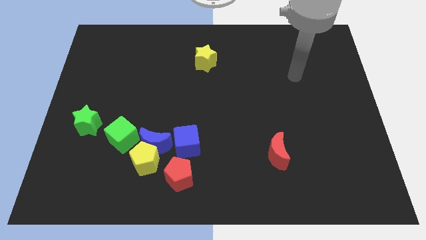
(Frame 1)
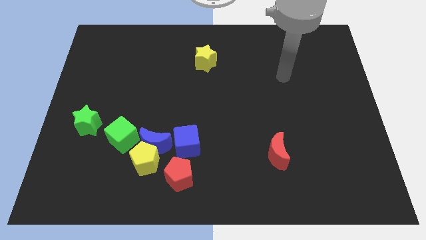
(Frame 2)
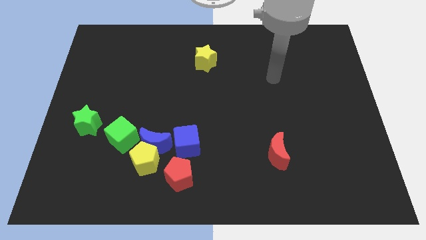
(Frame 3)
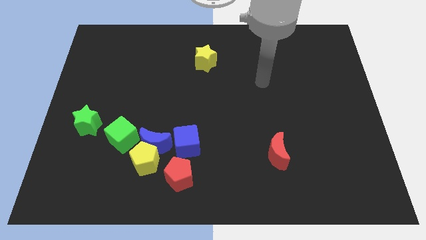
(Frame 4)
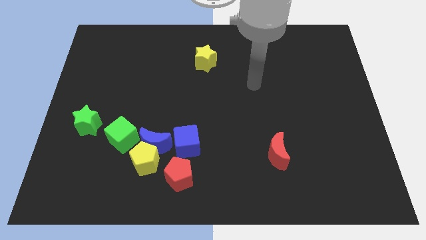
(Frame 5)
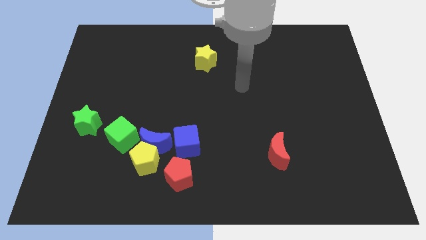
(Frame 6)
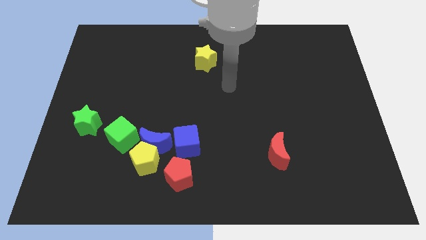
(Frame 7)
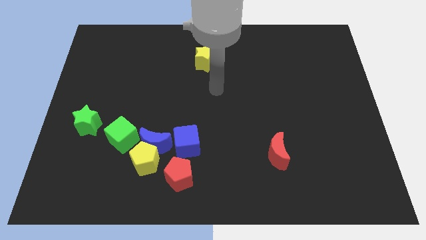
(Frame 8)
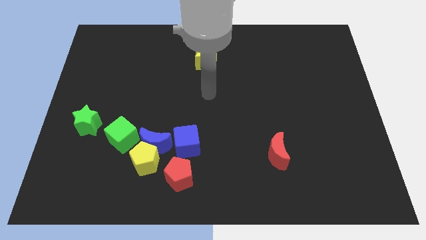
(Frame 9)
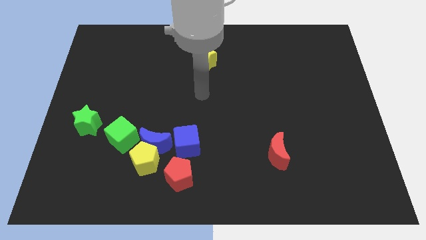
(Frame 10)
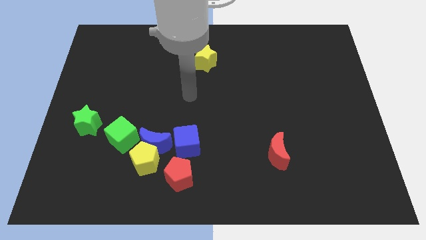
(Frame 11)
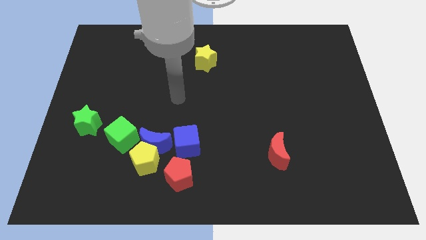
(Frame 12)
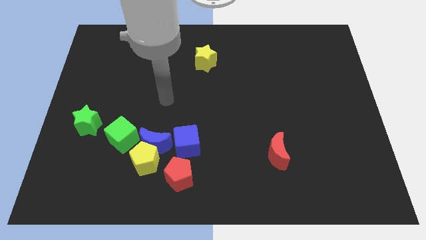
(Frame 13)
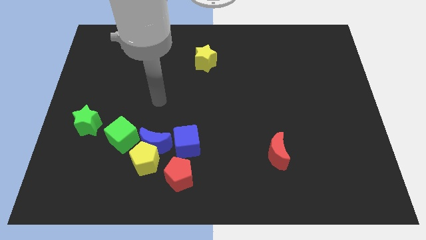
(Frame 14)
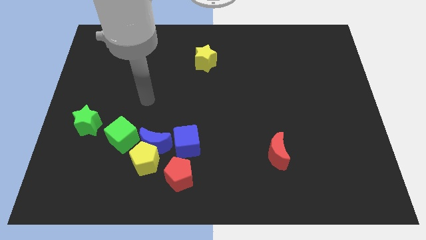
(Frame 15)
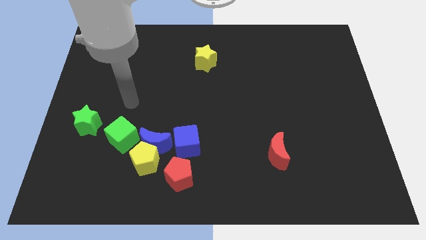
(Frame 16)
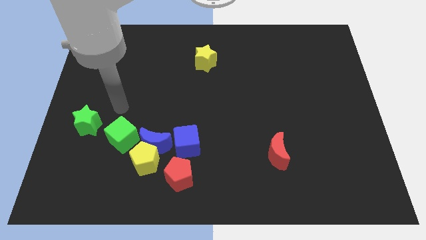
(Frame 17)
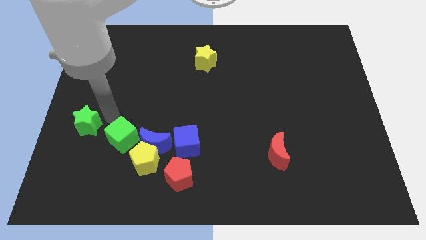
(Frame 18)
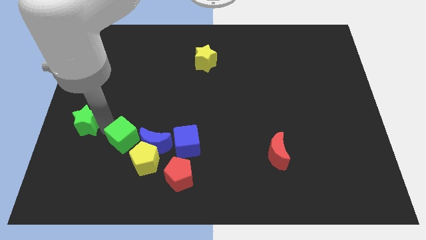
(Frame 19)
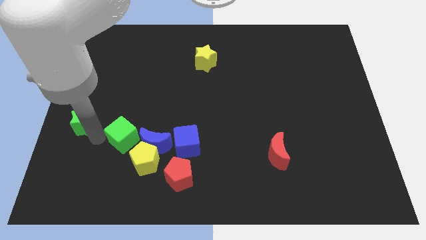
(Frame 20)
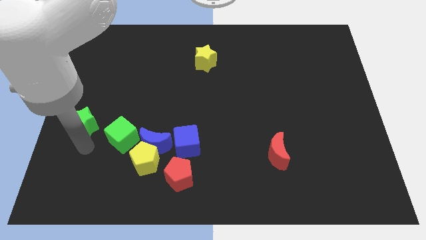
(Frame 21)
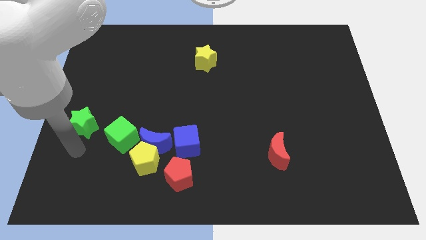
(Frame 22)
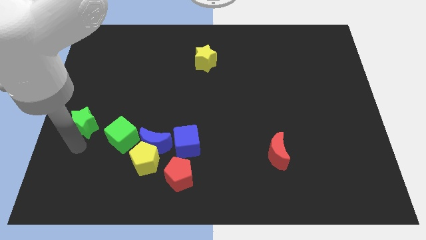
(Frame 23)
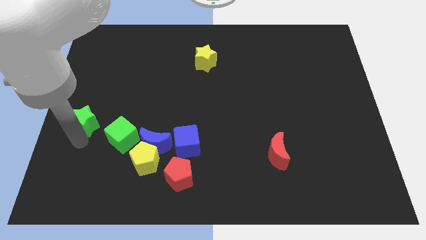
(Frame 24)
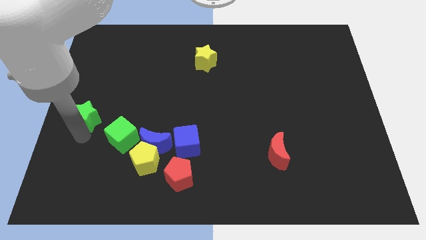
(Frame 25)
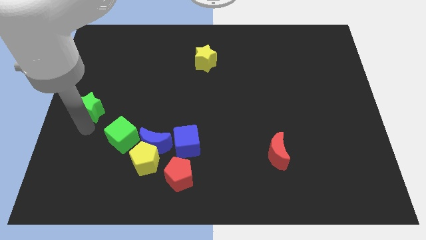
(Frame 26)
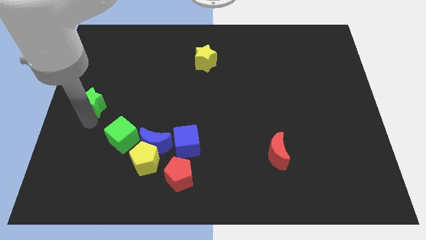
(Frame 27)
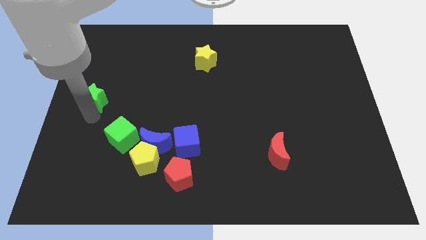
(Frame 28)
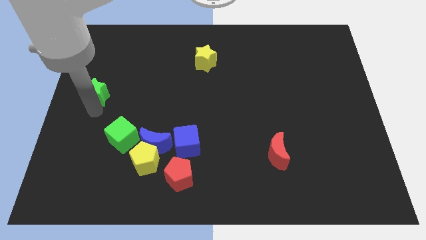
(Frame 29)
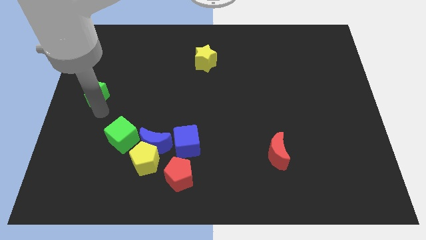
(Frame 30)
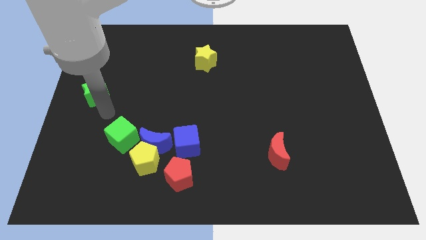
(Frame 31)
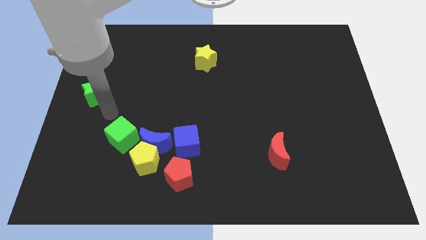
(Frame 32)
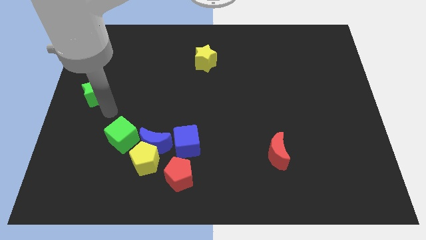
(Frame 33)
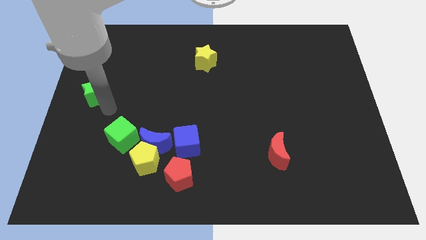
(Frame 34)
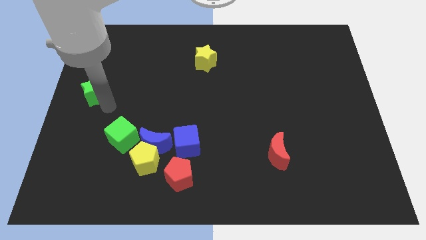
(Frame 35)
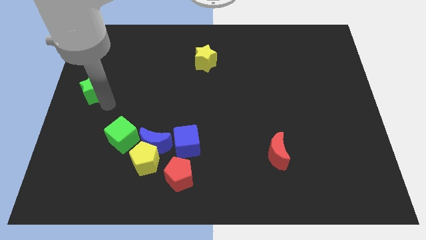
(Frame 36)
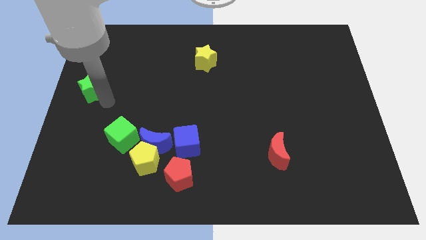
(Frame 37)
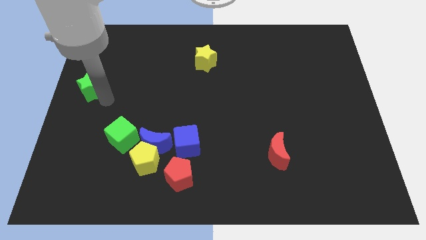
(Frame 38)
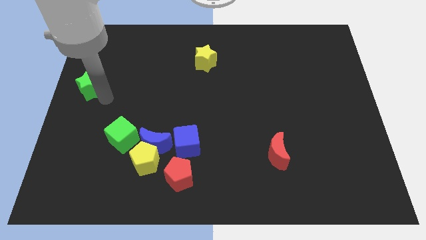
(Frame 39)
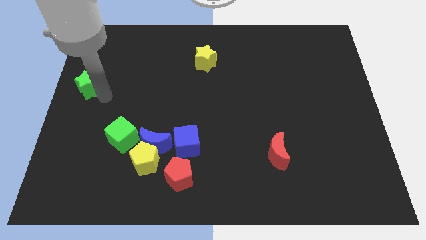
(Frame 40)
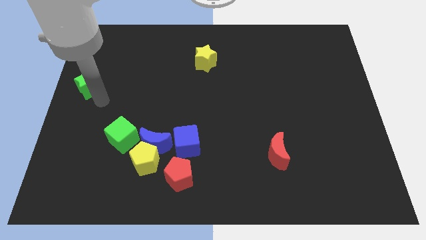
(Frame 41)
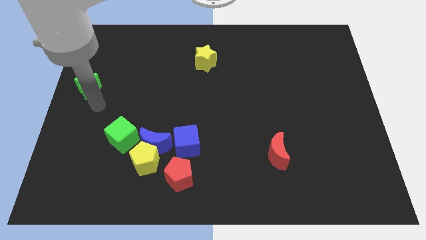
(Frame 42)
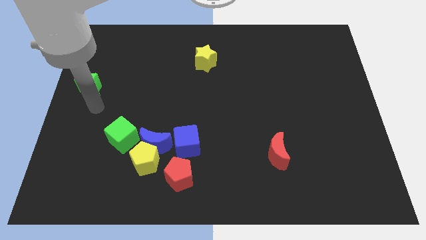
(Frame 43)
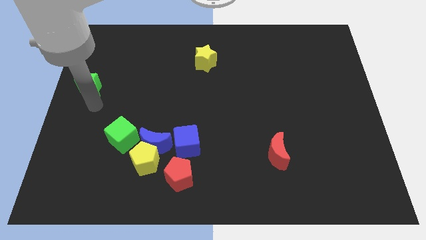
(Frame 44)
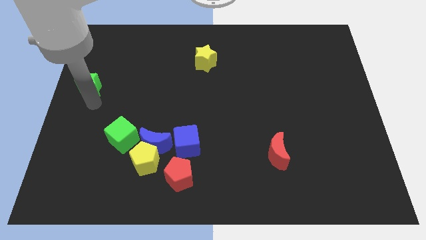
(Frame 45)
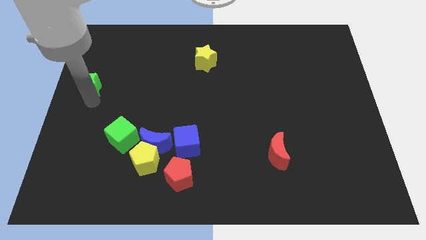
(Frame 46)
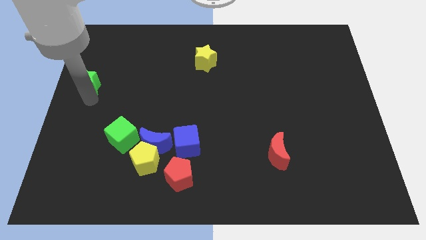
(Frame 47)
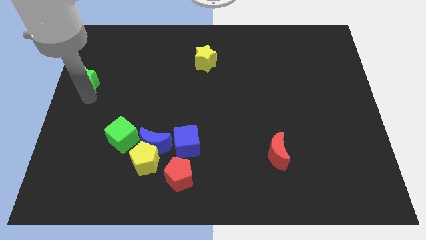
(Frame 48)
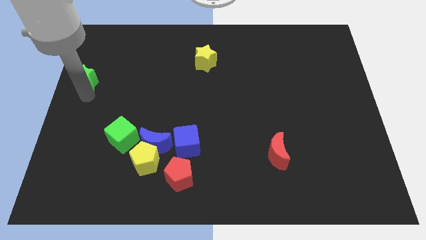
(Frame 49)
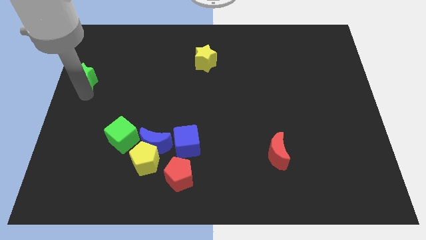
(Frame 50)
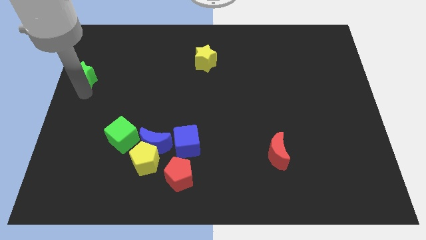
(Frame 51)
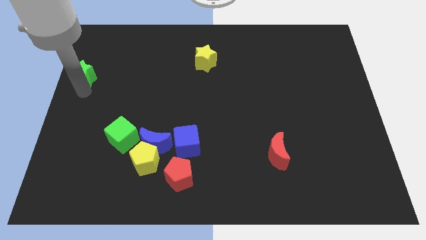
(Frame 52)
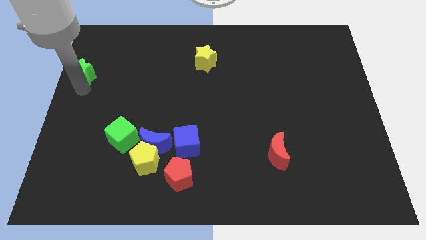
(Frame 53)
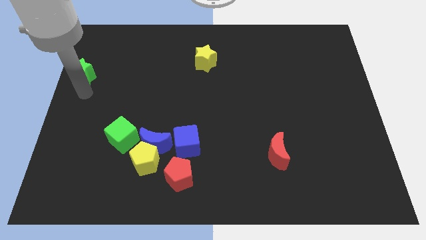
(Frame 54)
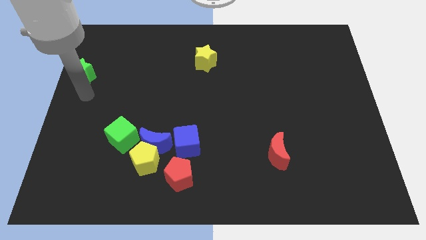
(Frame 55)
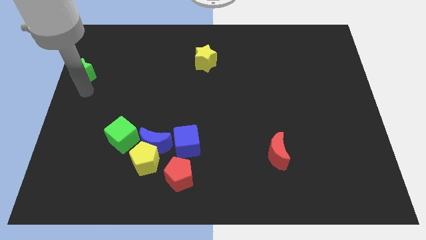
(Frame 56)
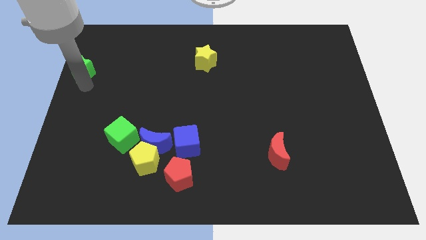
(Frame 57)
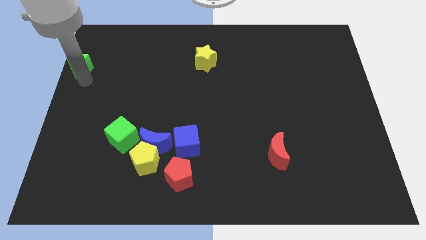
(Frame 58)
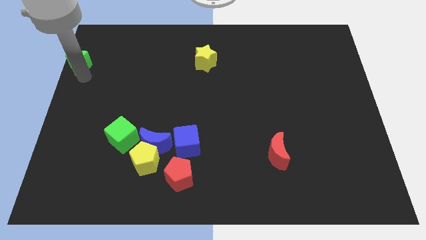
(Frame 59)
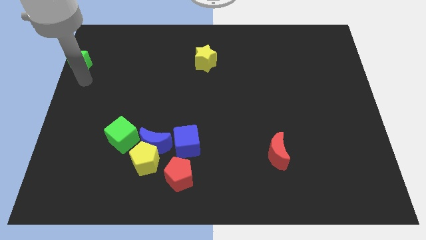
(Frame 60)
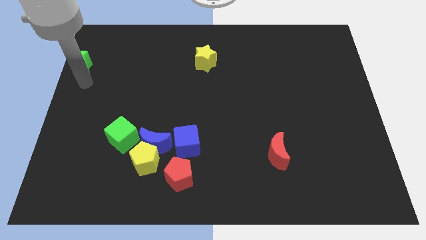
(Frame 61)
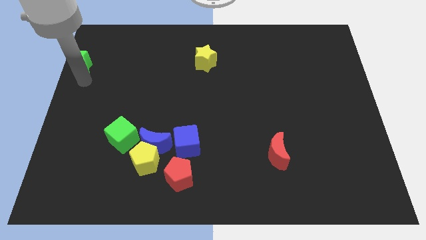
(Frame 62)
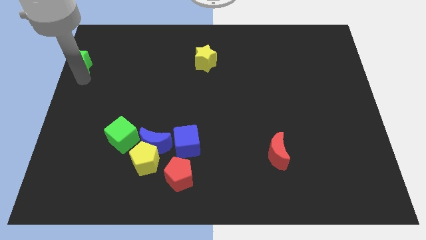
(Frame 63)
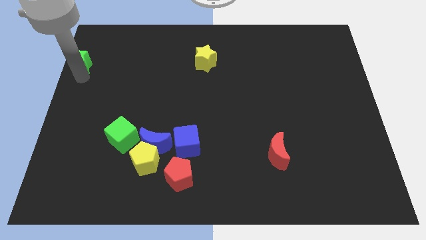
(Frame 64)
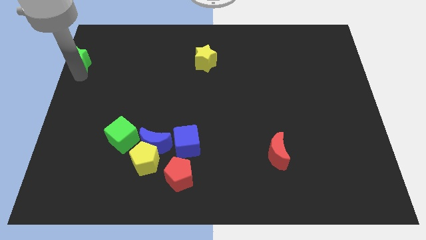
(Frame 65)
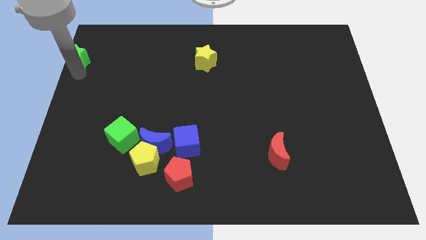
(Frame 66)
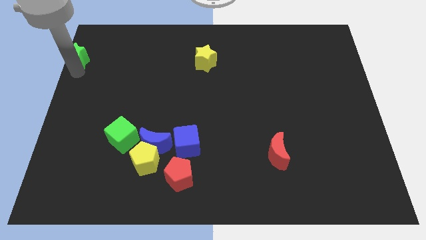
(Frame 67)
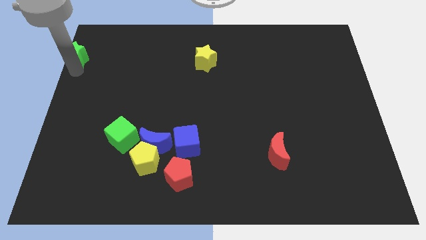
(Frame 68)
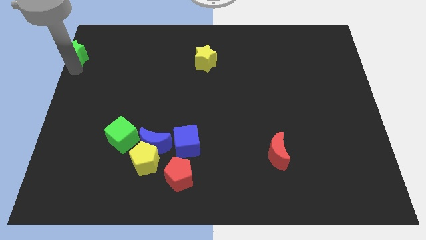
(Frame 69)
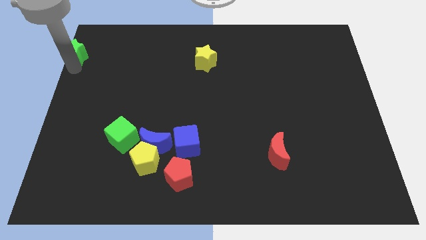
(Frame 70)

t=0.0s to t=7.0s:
move the green star to the top left of the board

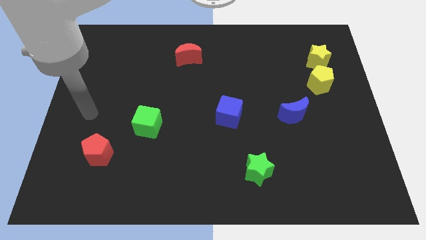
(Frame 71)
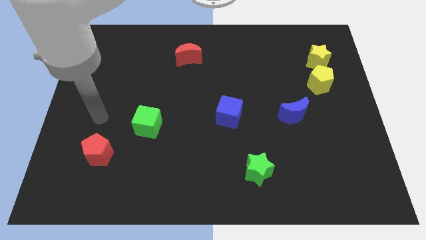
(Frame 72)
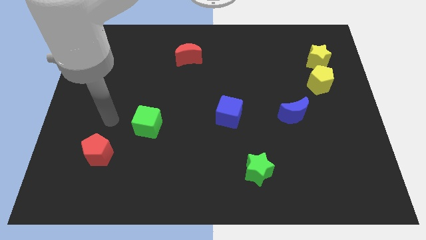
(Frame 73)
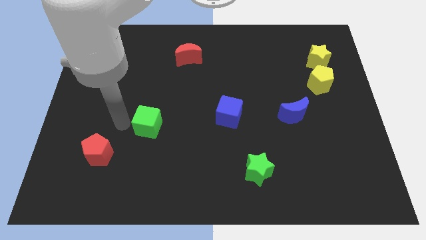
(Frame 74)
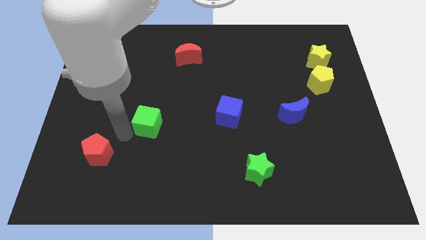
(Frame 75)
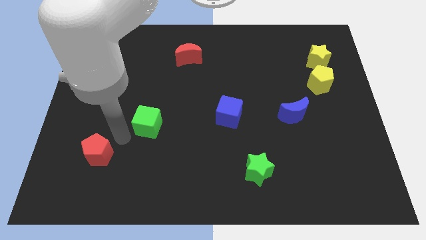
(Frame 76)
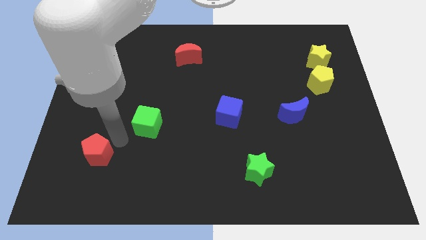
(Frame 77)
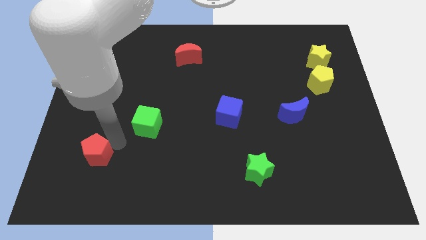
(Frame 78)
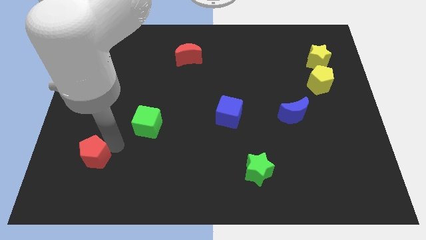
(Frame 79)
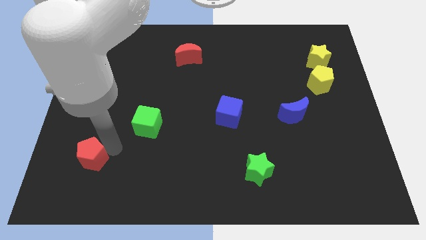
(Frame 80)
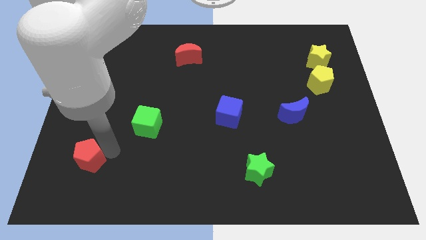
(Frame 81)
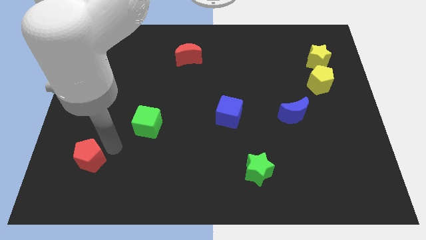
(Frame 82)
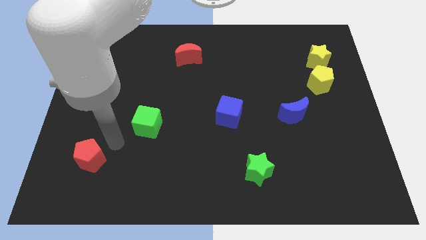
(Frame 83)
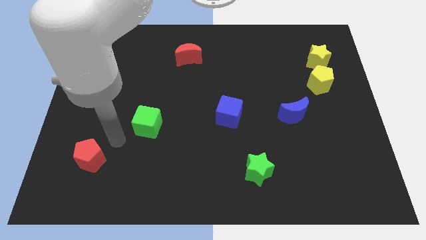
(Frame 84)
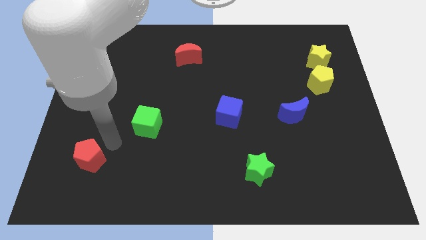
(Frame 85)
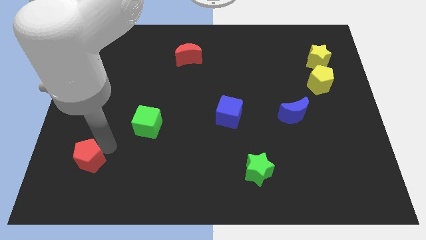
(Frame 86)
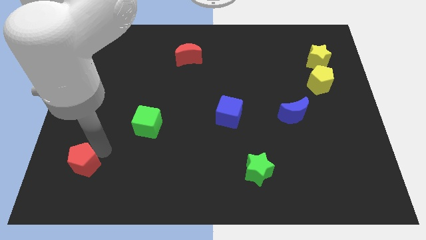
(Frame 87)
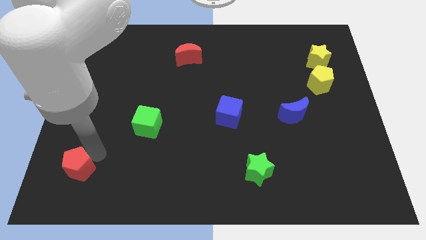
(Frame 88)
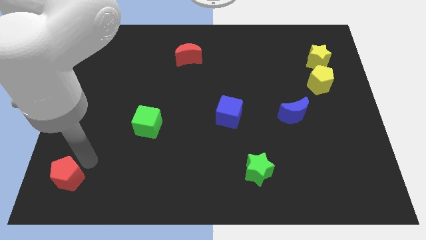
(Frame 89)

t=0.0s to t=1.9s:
move the red pentagon to the bottom left of the board
